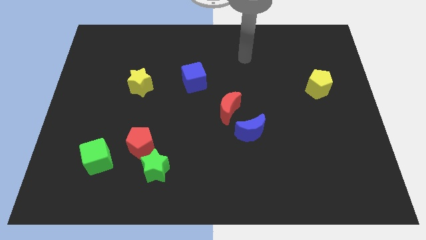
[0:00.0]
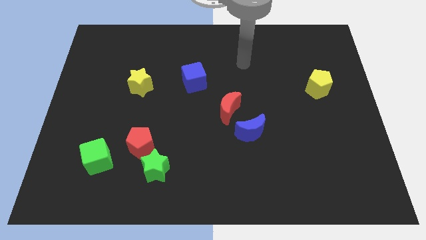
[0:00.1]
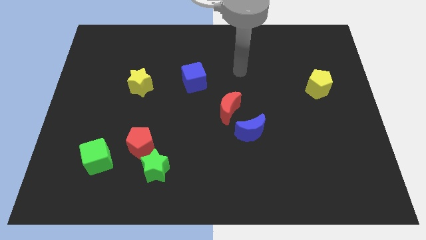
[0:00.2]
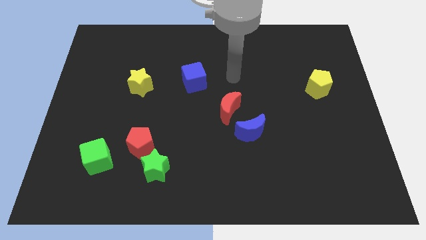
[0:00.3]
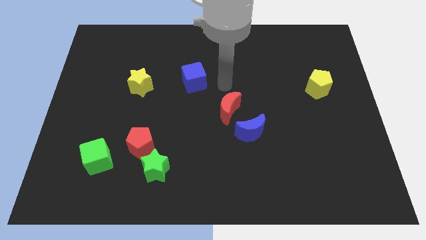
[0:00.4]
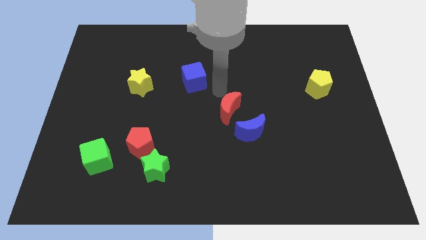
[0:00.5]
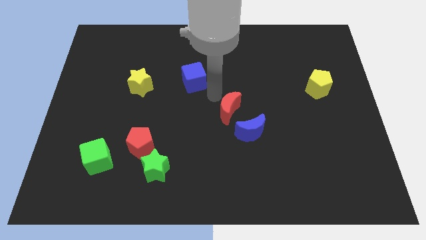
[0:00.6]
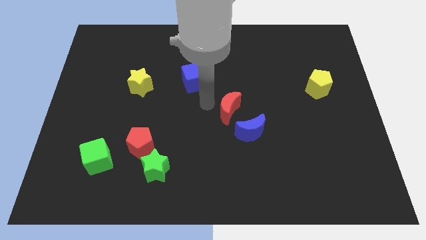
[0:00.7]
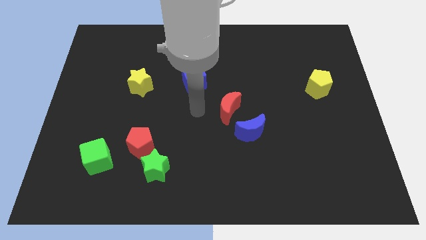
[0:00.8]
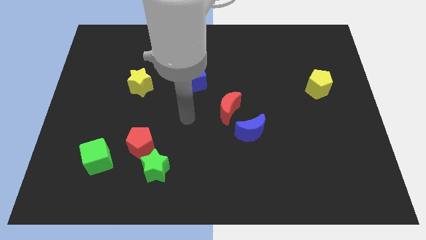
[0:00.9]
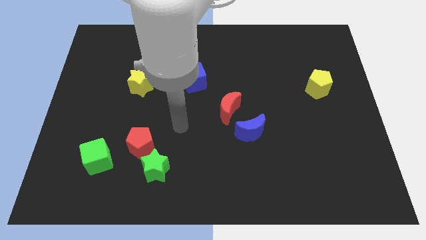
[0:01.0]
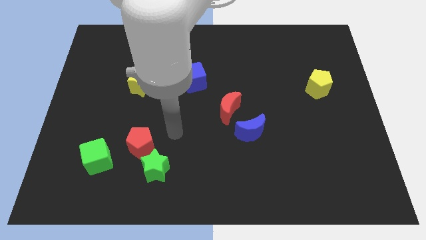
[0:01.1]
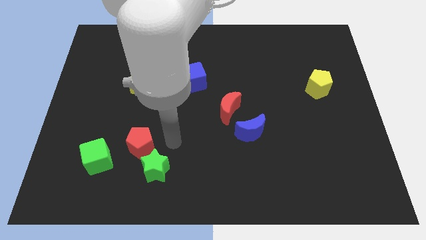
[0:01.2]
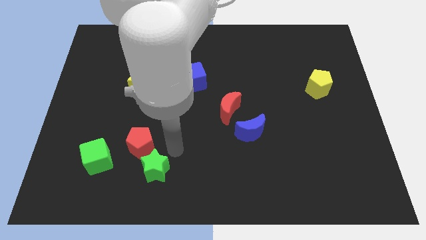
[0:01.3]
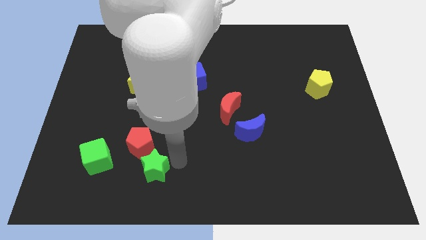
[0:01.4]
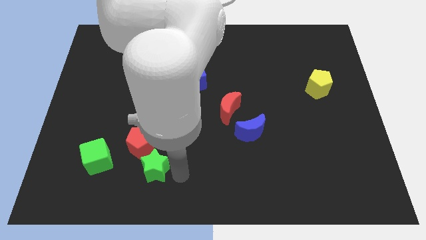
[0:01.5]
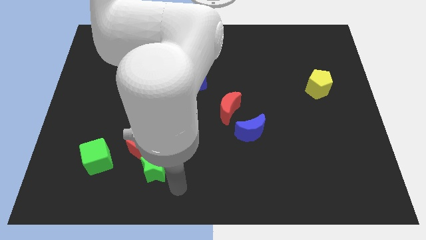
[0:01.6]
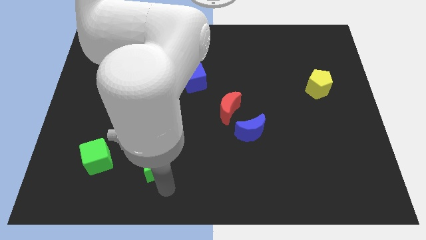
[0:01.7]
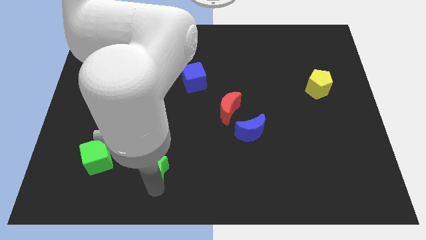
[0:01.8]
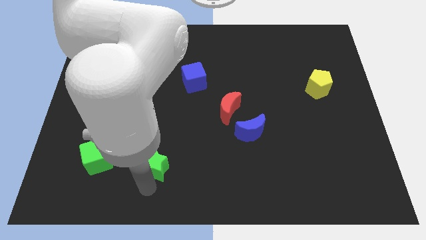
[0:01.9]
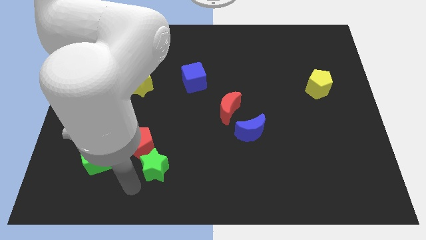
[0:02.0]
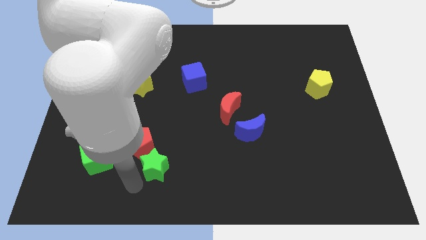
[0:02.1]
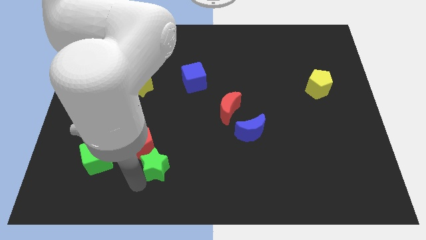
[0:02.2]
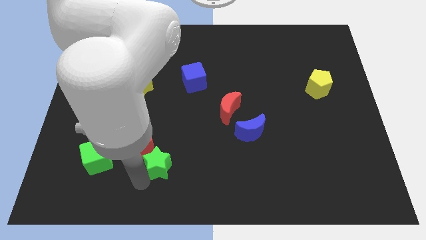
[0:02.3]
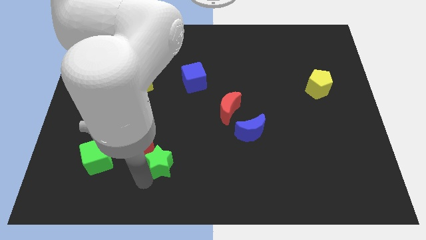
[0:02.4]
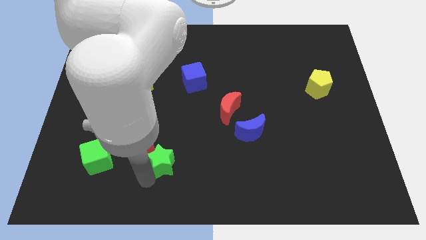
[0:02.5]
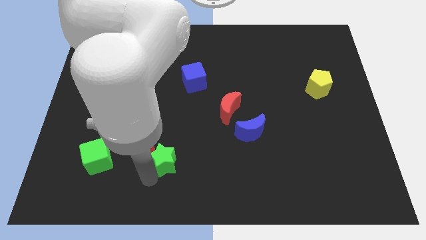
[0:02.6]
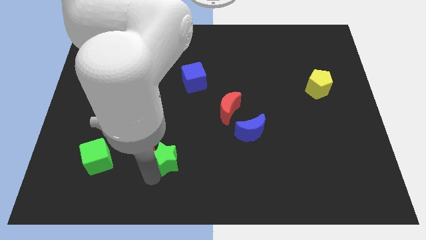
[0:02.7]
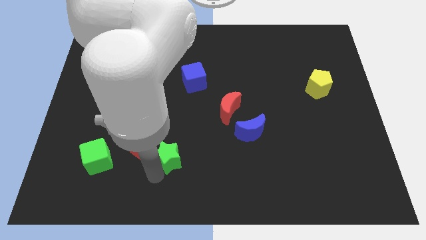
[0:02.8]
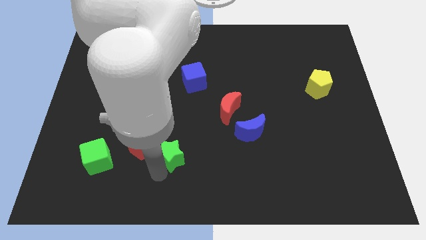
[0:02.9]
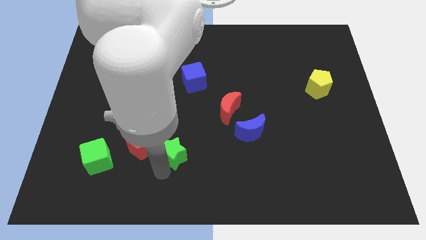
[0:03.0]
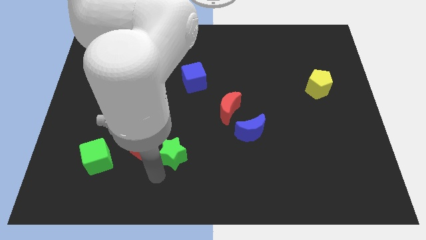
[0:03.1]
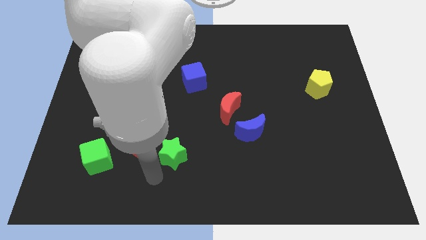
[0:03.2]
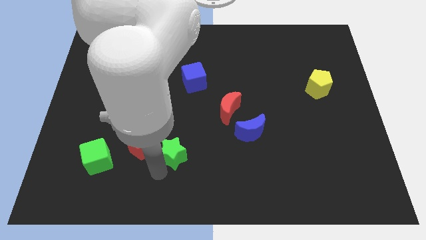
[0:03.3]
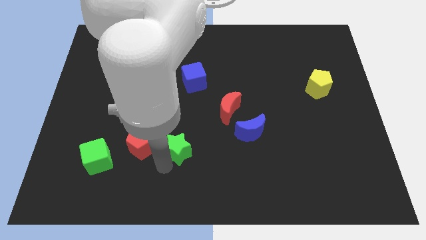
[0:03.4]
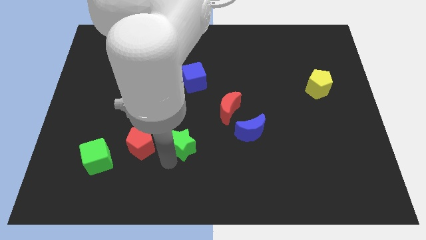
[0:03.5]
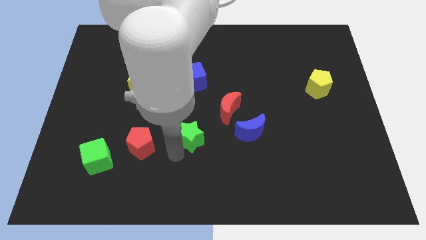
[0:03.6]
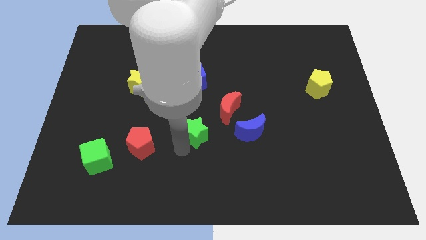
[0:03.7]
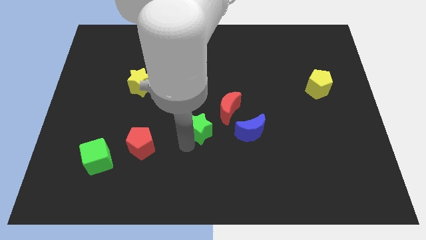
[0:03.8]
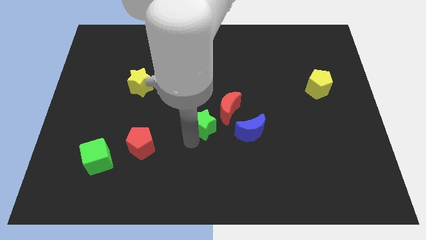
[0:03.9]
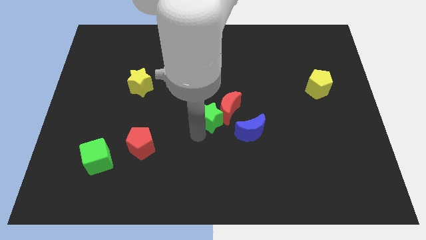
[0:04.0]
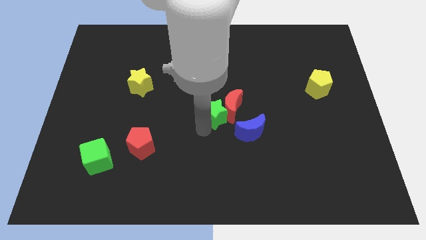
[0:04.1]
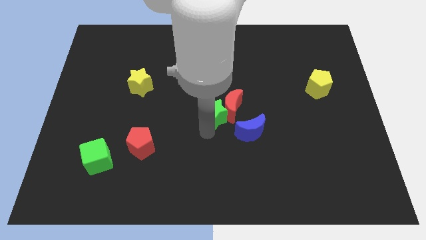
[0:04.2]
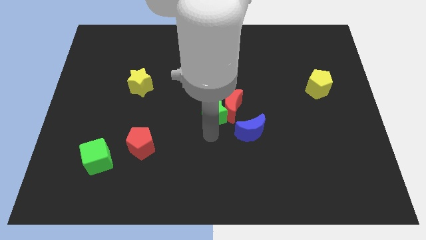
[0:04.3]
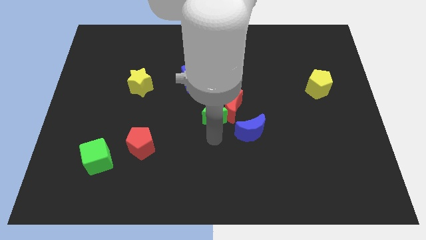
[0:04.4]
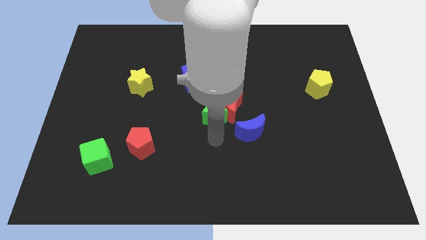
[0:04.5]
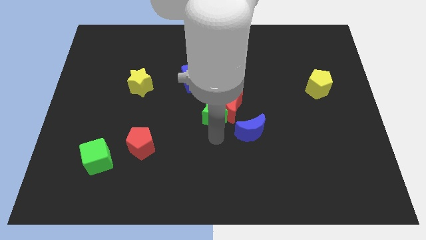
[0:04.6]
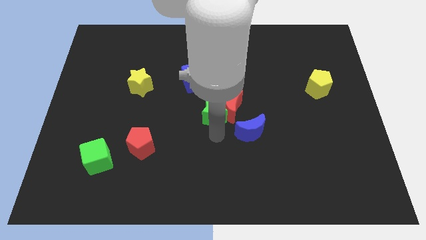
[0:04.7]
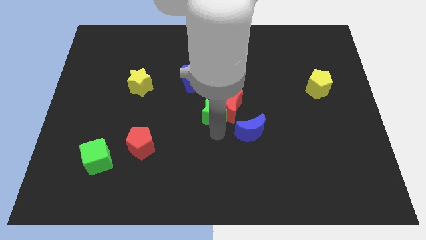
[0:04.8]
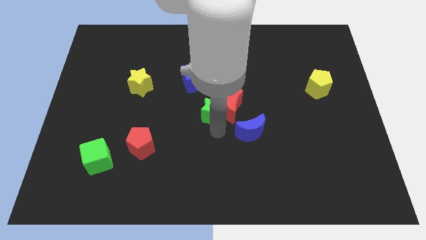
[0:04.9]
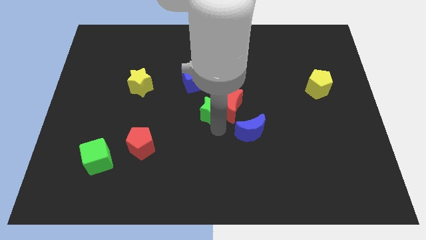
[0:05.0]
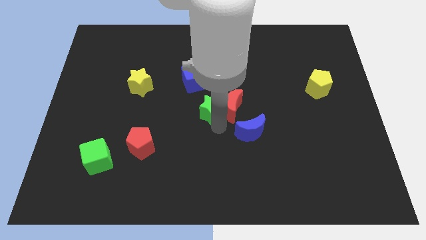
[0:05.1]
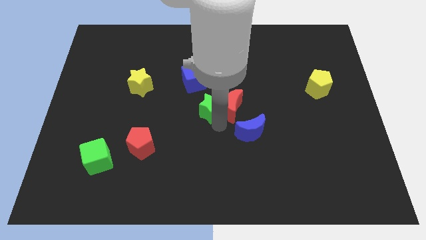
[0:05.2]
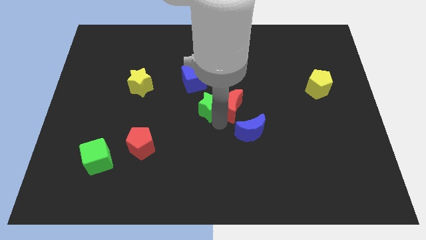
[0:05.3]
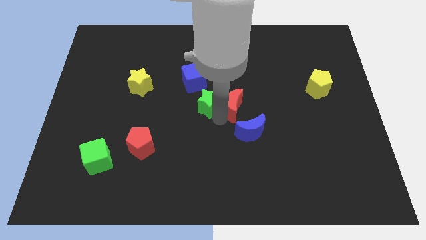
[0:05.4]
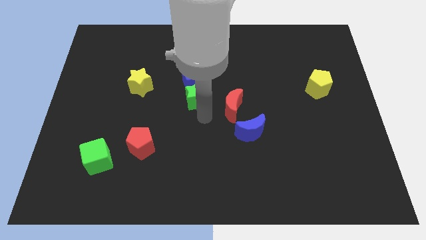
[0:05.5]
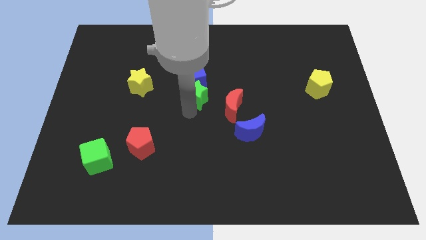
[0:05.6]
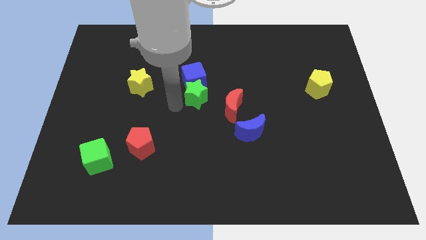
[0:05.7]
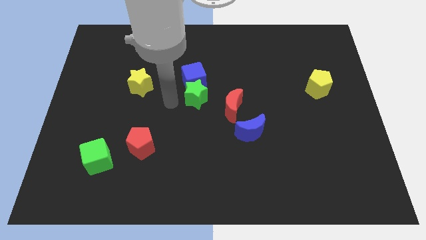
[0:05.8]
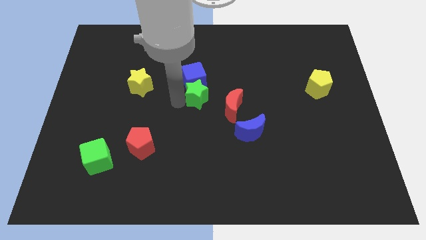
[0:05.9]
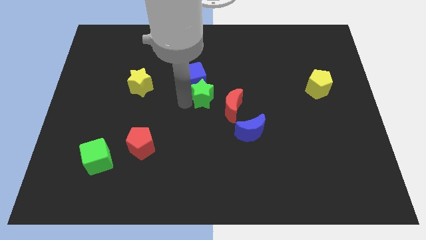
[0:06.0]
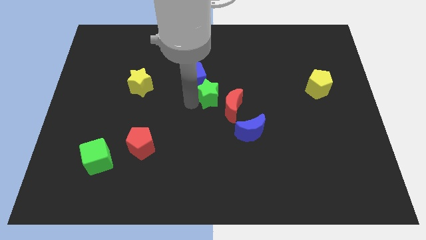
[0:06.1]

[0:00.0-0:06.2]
push the green star up and to the right

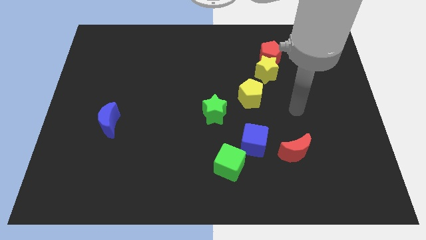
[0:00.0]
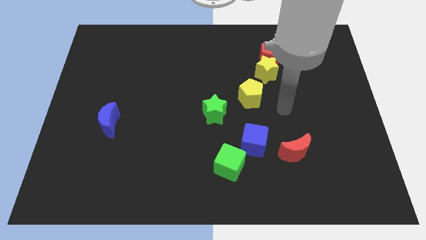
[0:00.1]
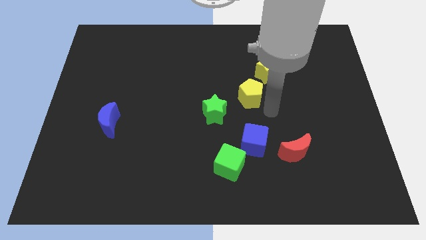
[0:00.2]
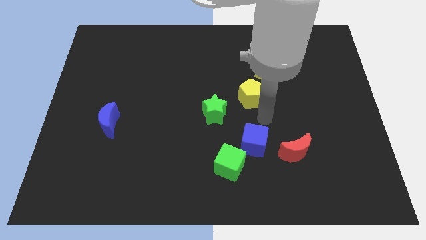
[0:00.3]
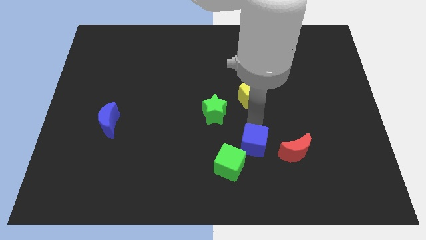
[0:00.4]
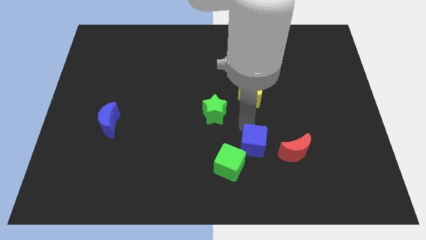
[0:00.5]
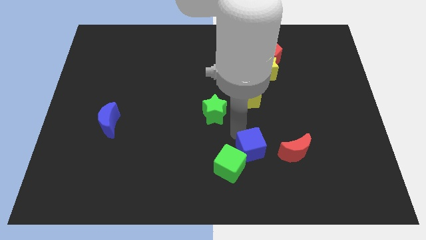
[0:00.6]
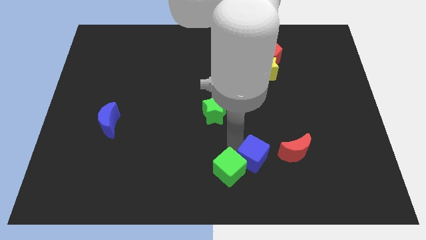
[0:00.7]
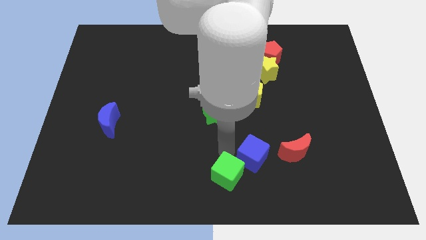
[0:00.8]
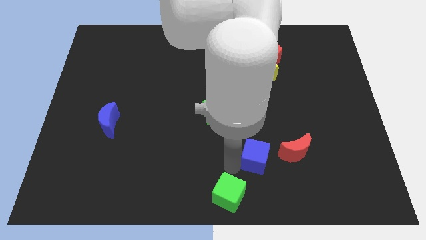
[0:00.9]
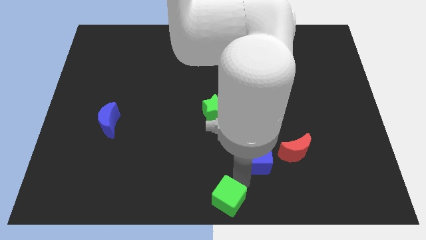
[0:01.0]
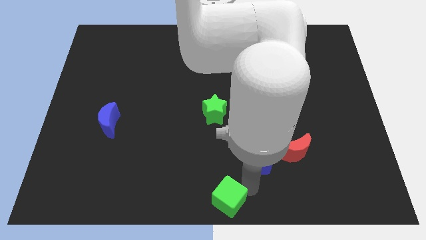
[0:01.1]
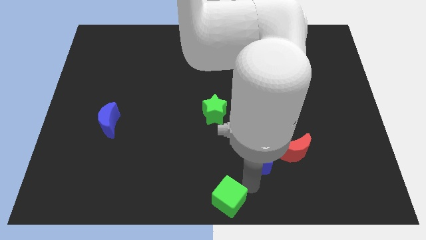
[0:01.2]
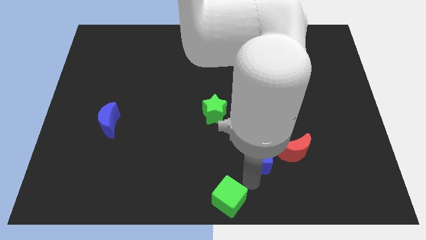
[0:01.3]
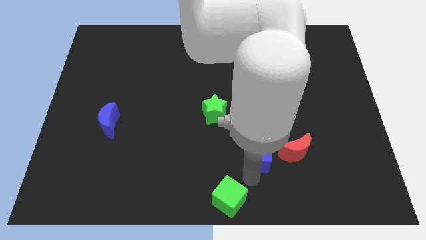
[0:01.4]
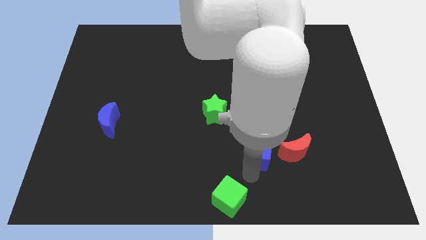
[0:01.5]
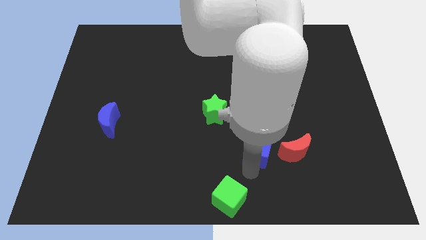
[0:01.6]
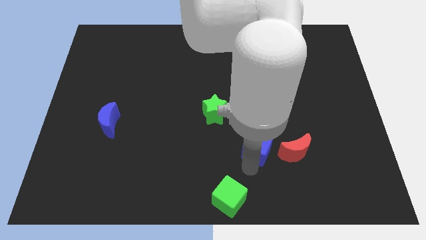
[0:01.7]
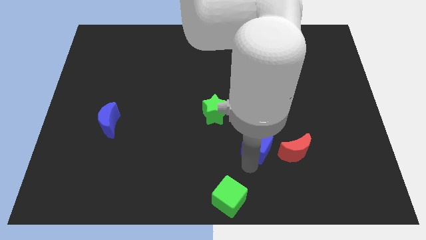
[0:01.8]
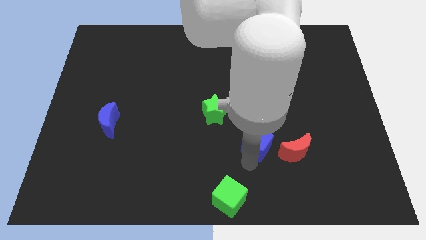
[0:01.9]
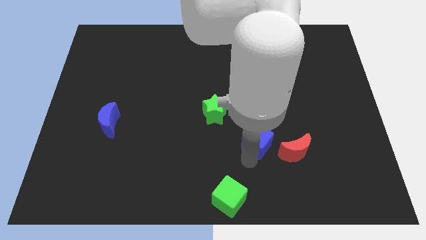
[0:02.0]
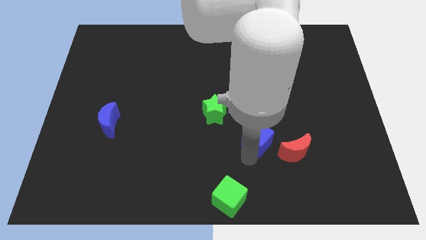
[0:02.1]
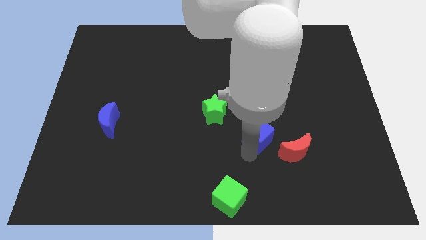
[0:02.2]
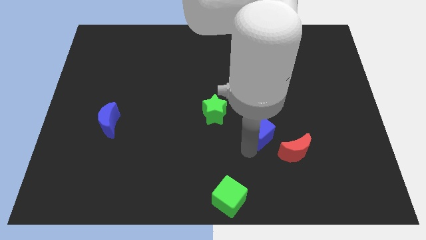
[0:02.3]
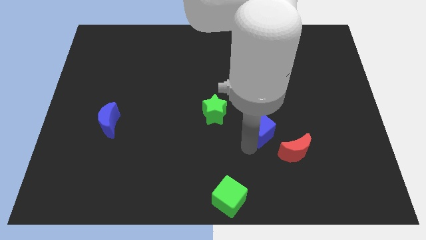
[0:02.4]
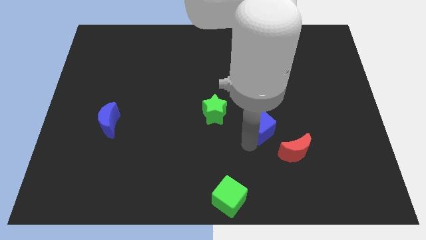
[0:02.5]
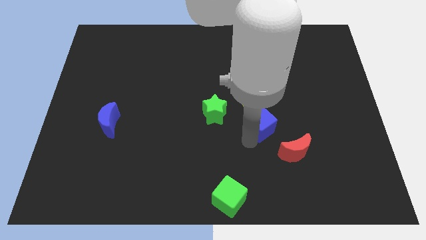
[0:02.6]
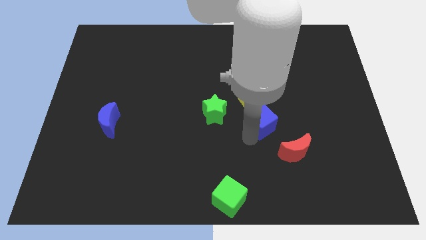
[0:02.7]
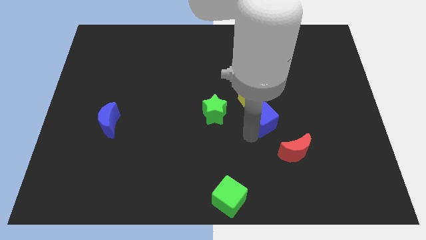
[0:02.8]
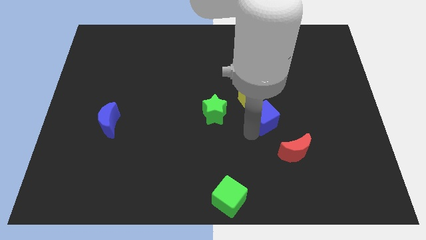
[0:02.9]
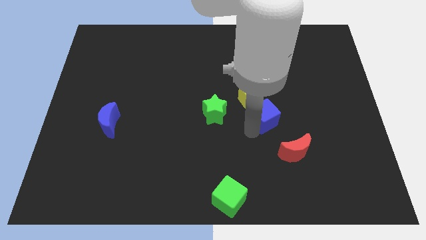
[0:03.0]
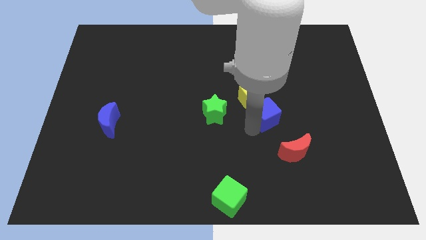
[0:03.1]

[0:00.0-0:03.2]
move the blue cube upwards and right slightly
